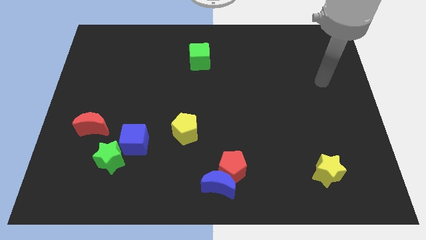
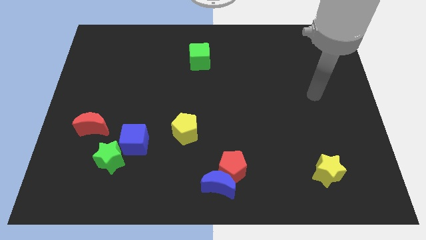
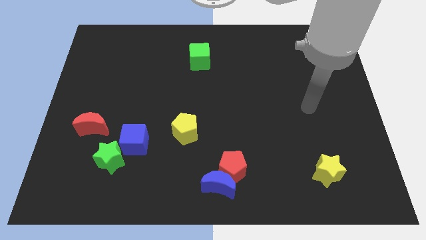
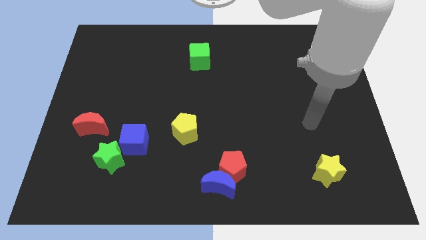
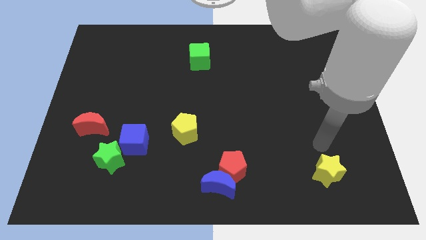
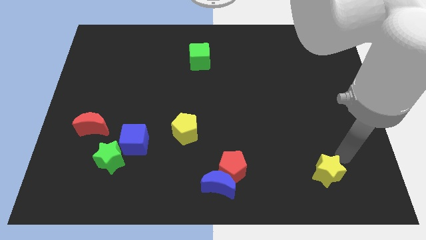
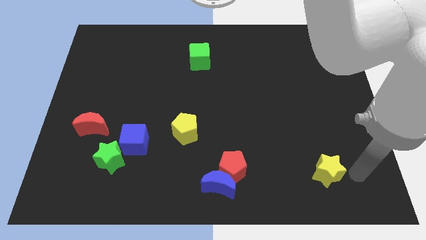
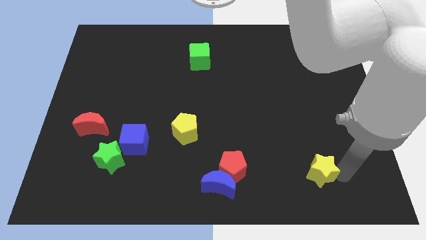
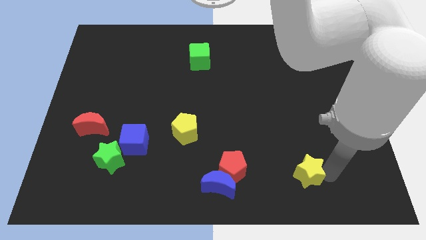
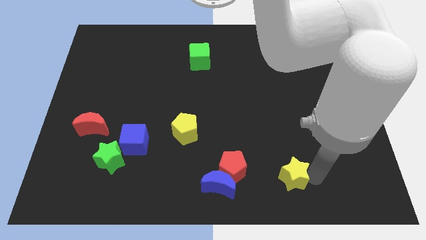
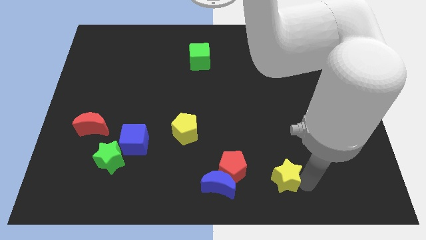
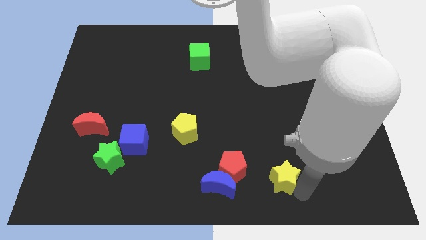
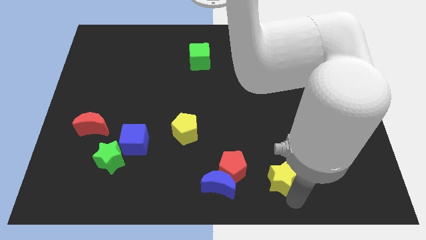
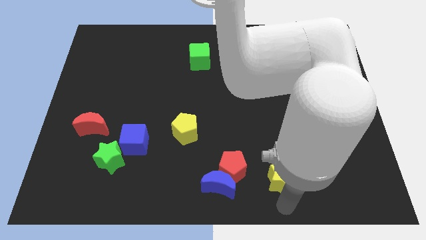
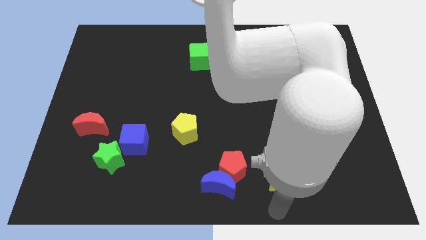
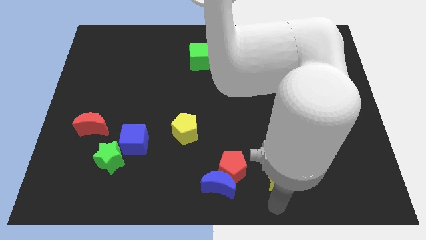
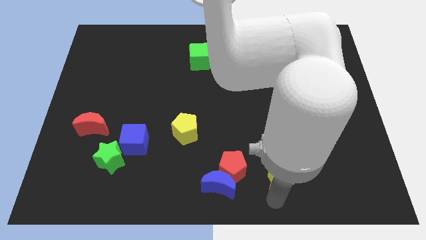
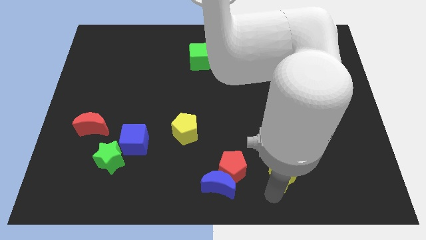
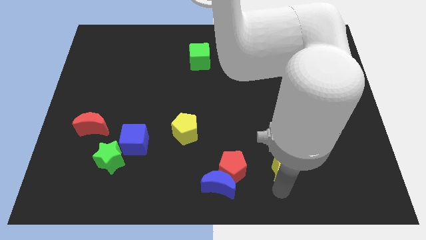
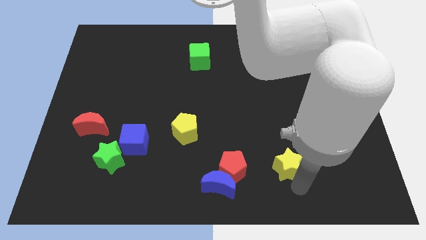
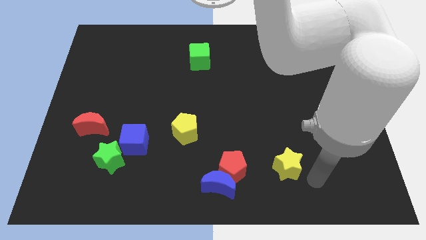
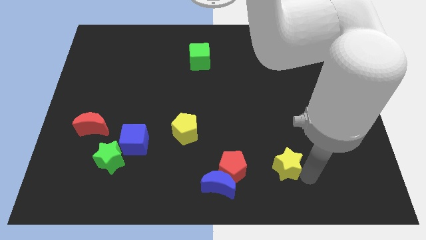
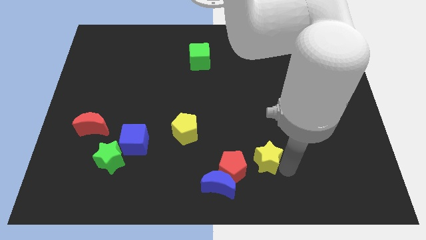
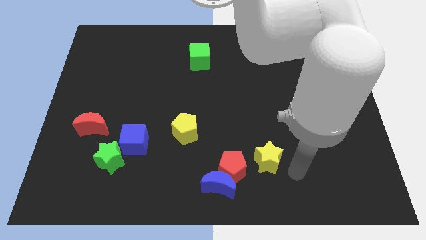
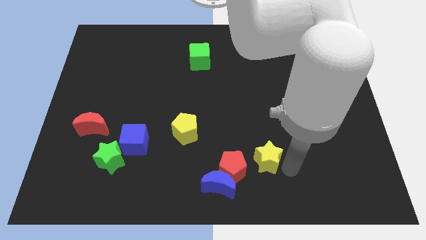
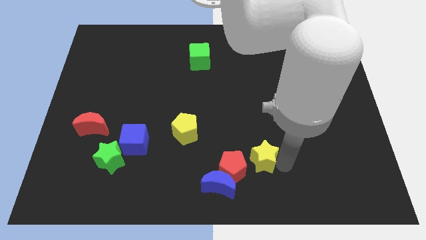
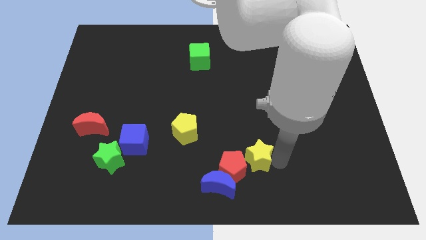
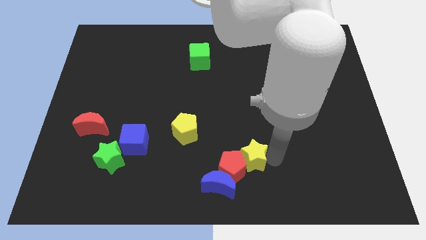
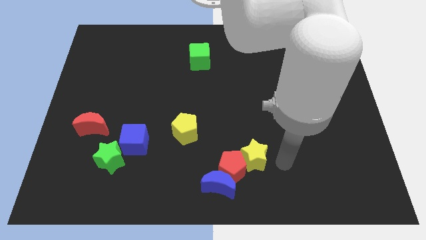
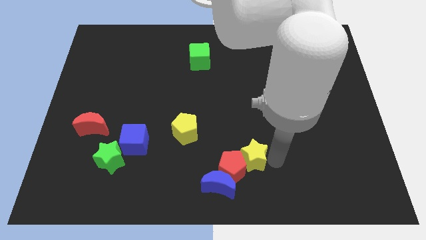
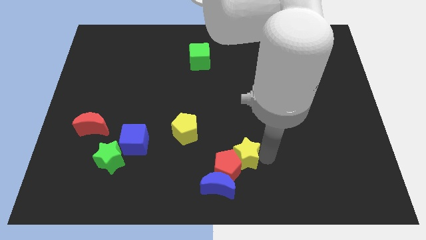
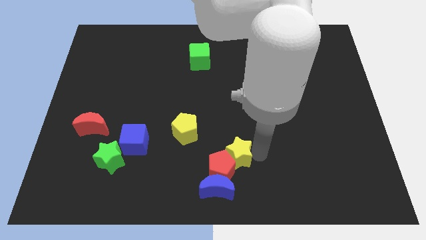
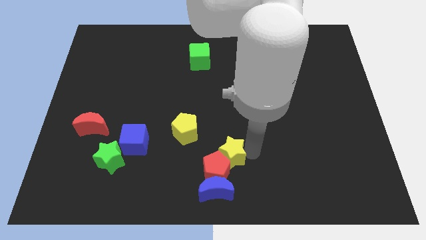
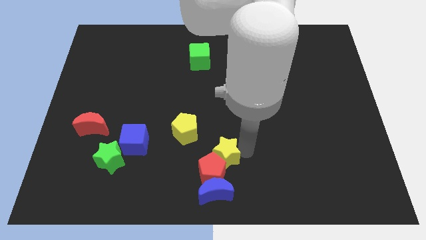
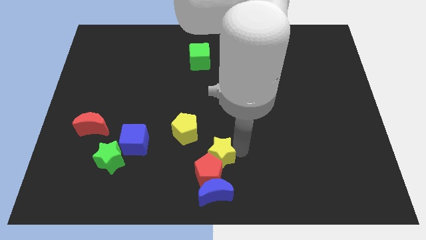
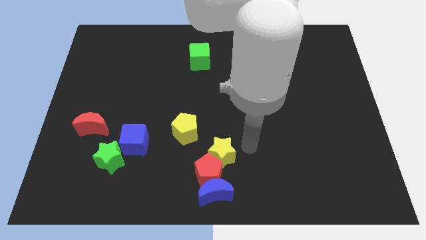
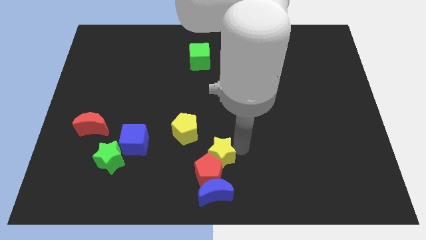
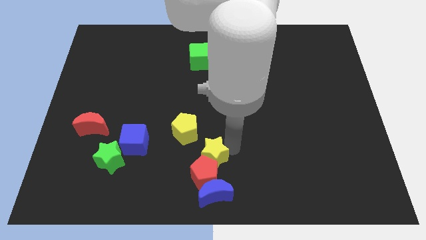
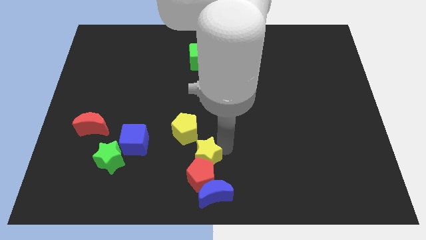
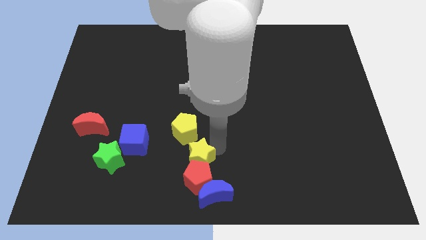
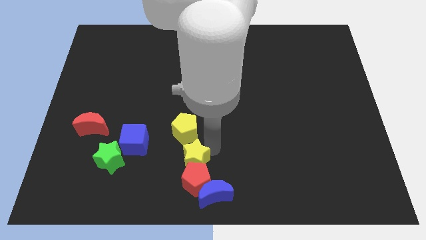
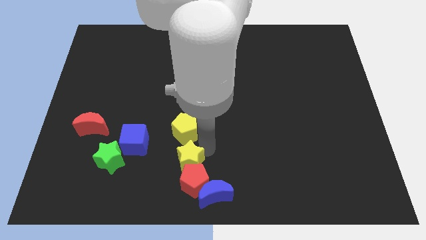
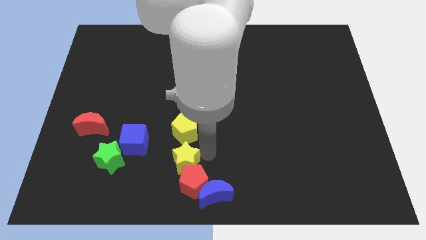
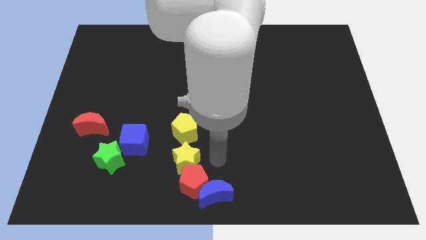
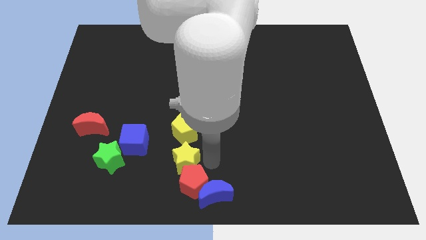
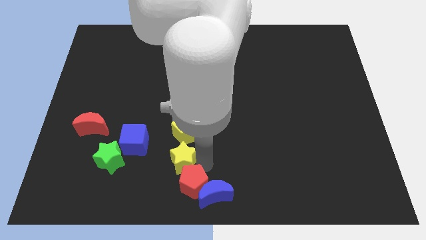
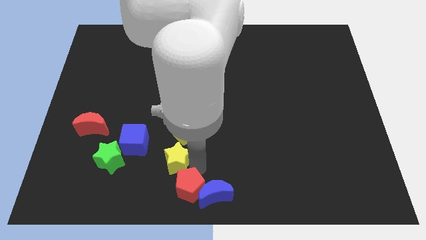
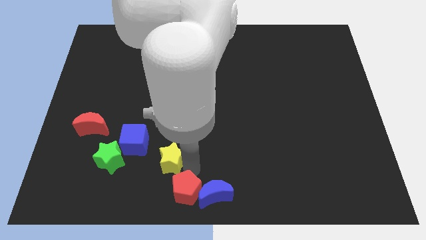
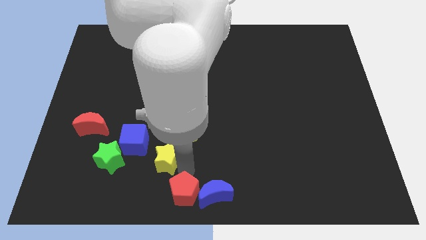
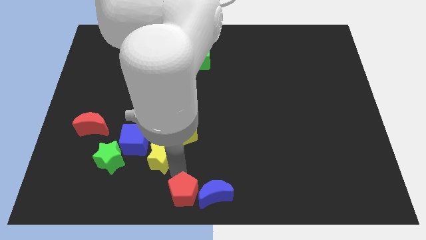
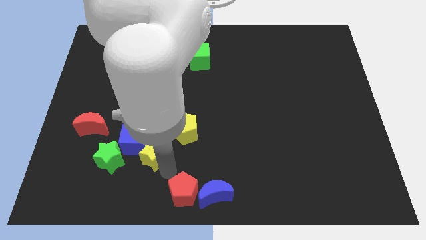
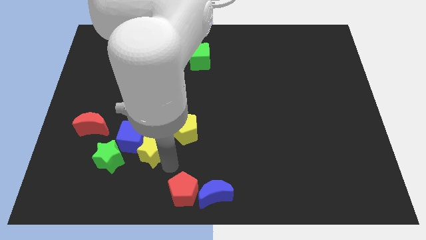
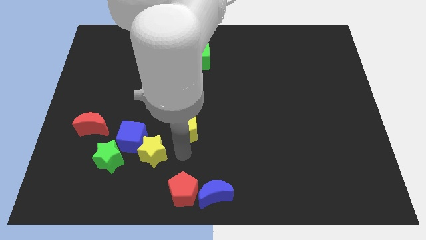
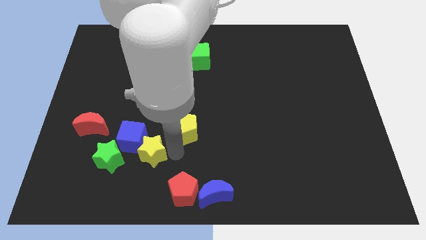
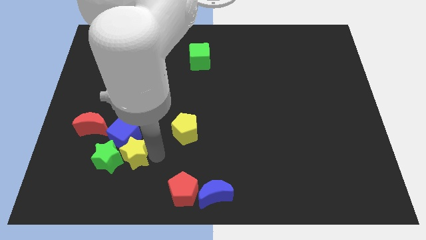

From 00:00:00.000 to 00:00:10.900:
put the yellow star towards the green star

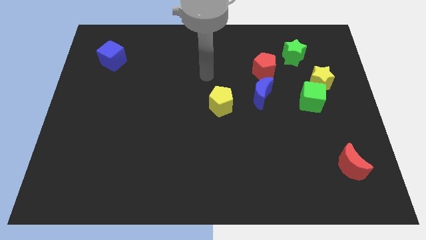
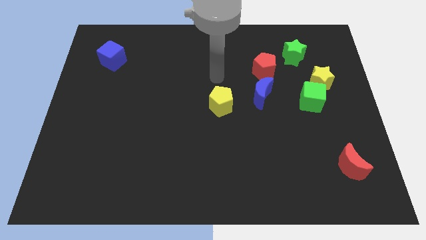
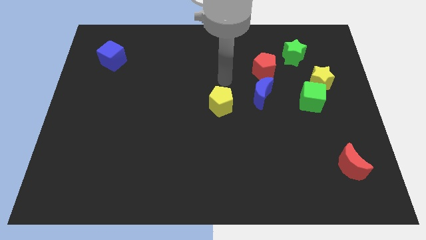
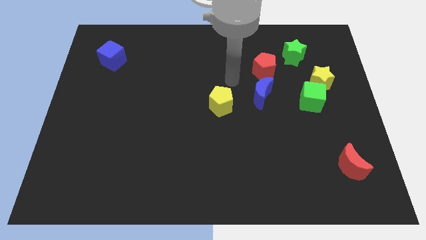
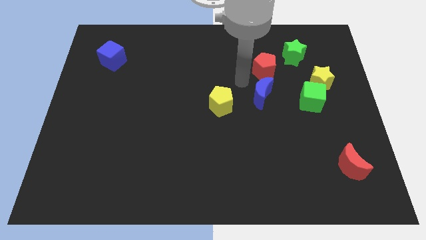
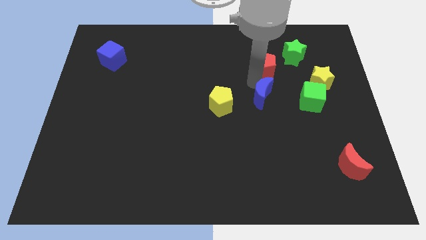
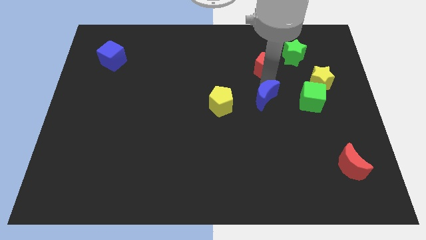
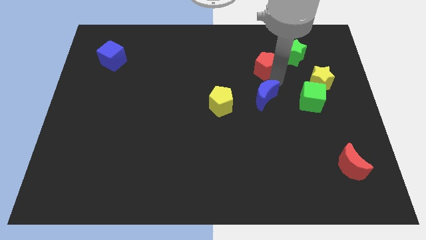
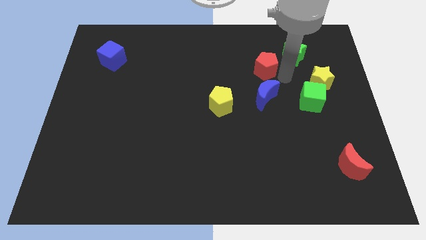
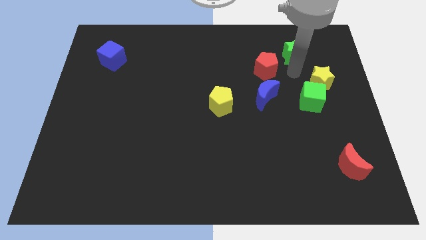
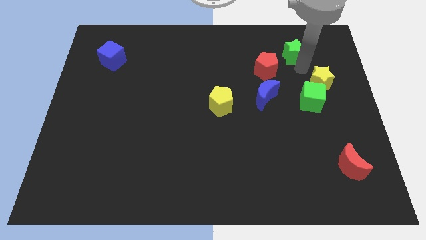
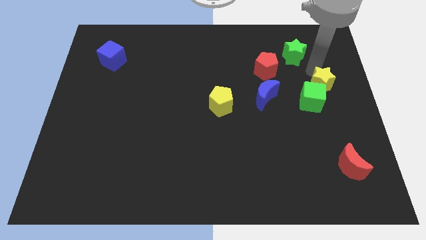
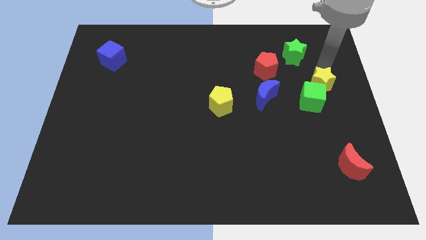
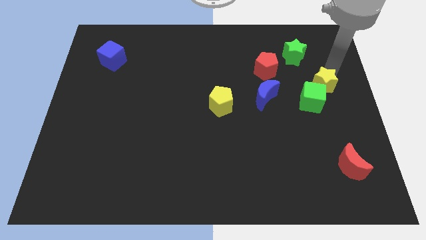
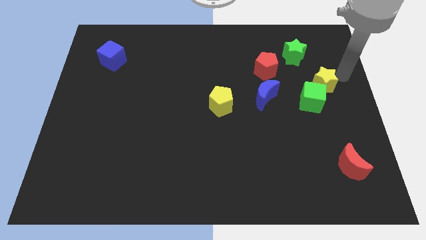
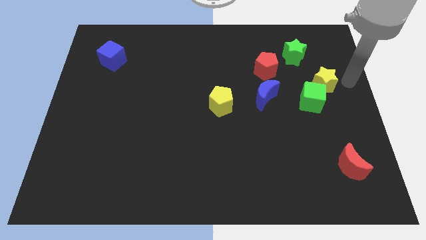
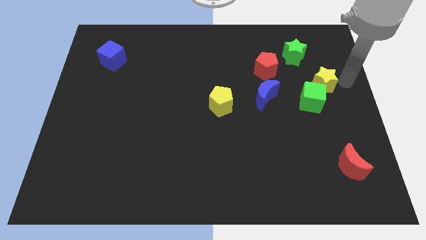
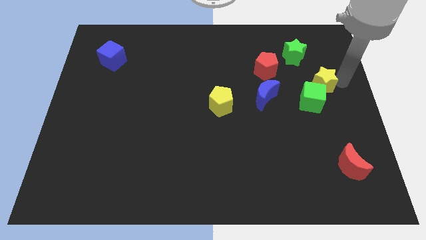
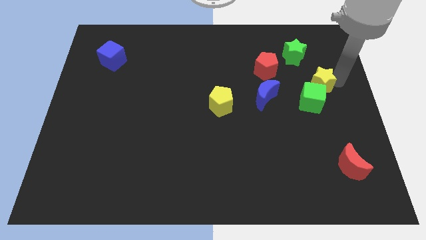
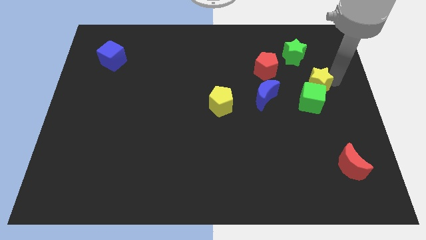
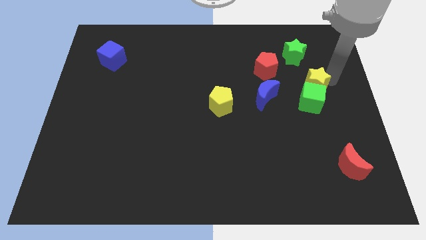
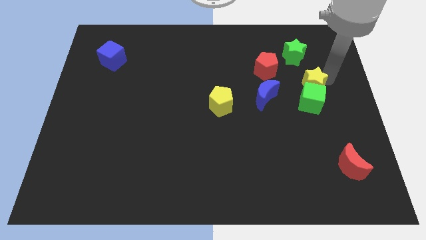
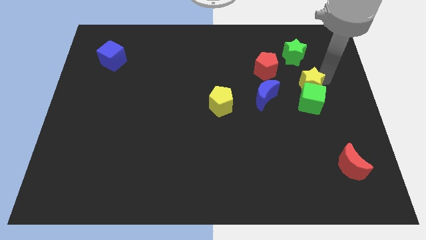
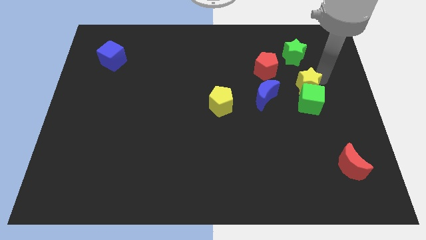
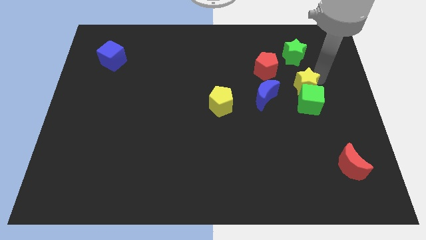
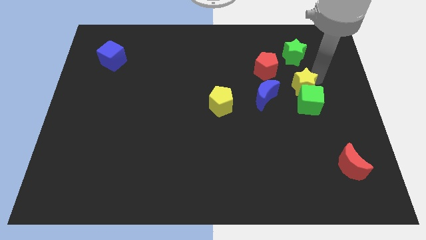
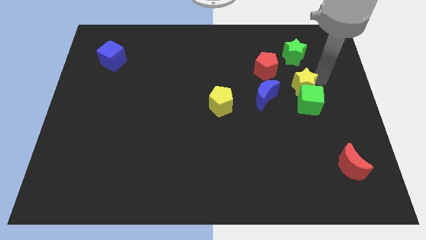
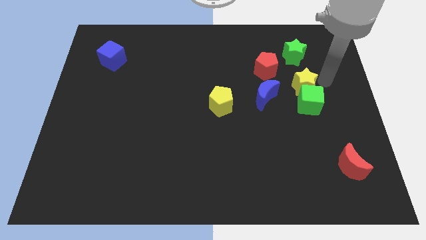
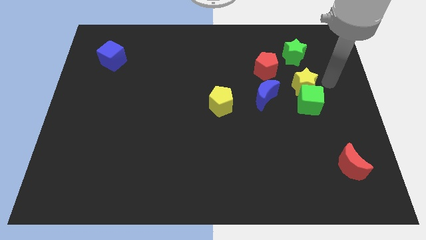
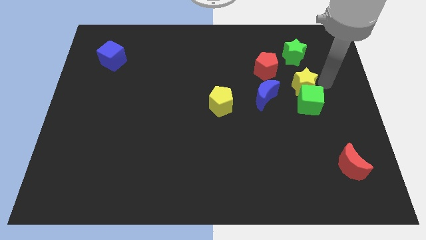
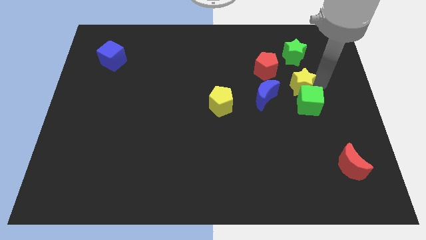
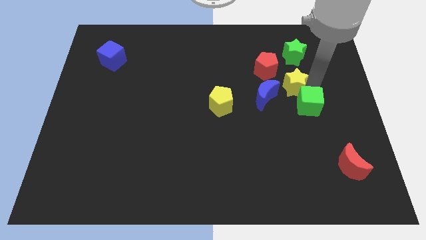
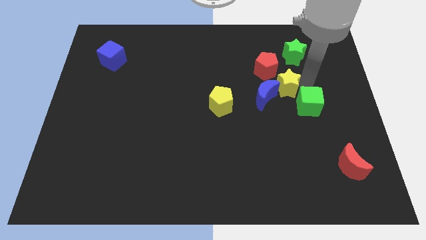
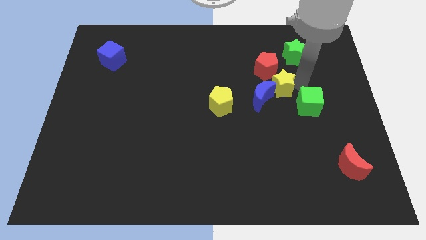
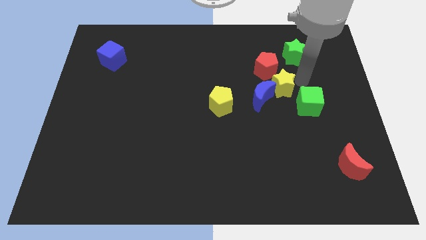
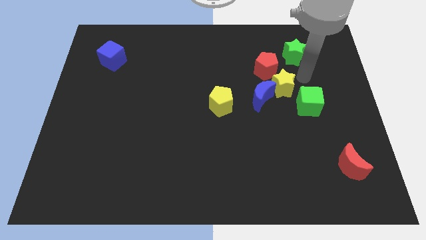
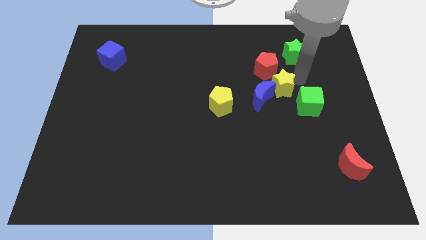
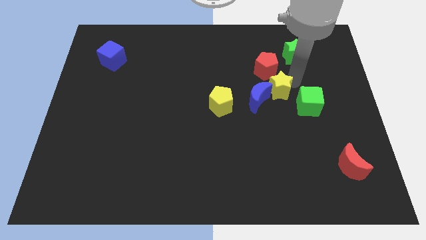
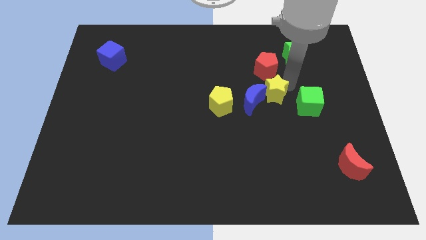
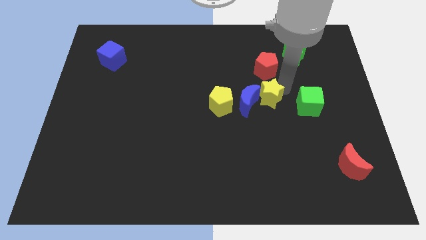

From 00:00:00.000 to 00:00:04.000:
move the yellow star to the blue moon
